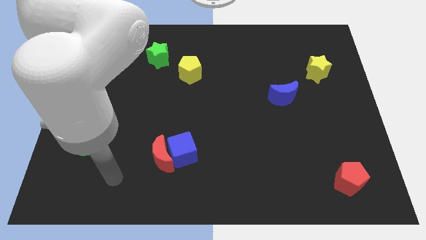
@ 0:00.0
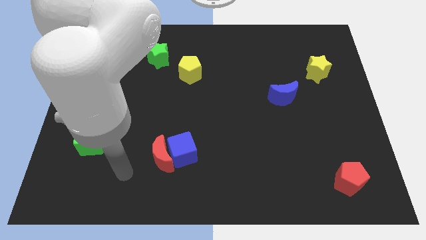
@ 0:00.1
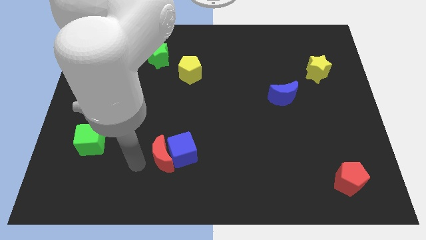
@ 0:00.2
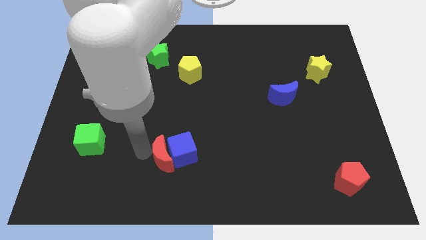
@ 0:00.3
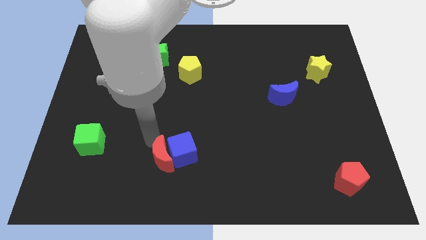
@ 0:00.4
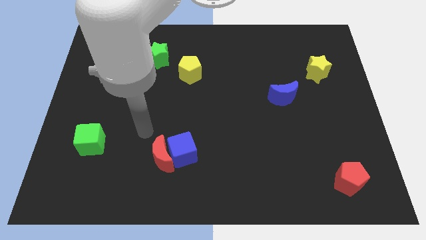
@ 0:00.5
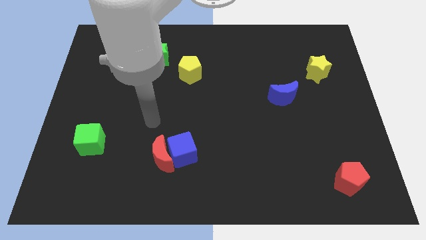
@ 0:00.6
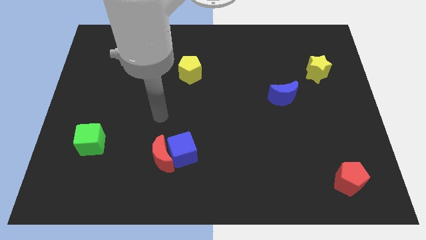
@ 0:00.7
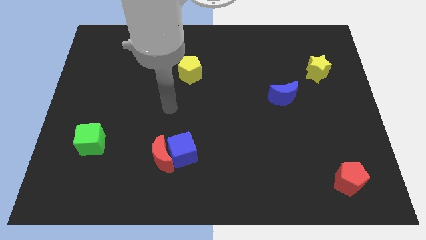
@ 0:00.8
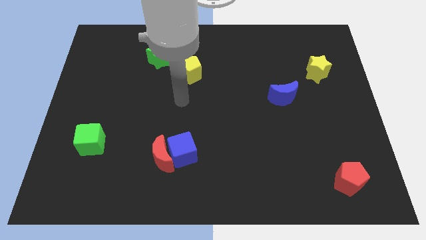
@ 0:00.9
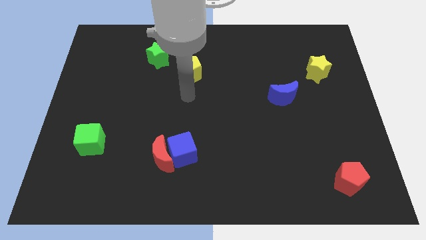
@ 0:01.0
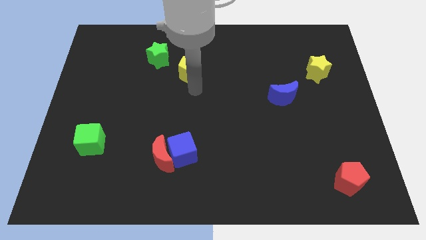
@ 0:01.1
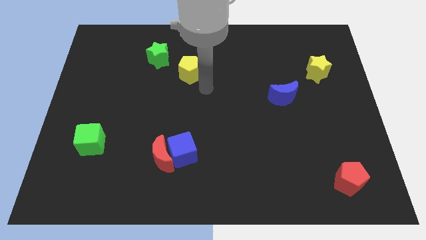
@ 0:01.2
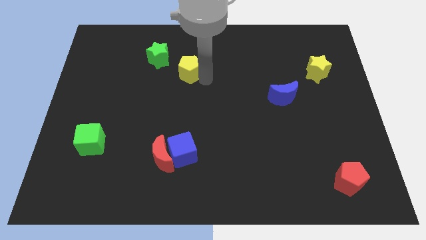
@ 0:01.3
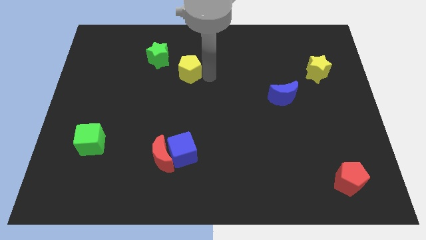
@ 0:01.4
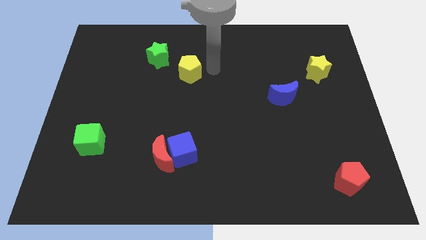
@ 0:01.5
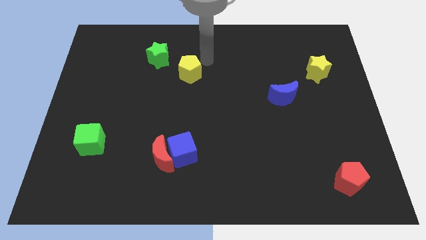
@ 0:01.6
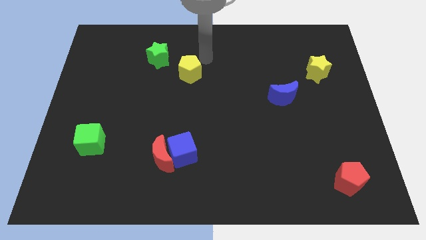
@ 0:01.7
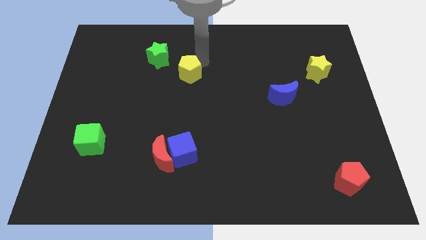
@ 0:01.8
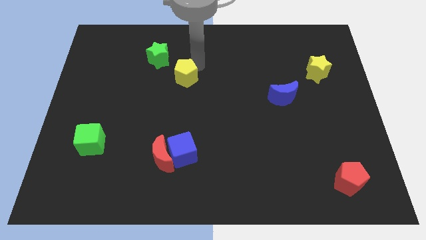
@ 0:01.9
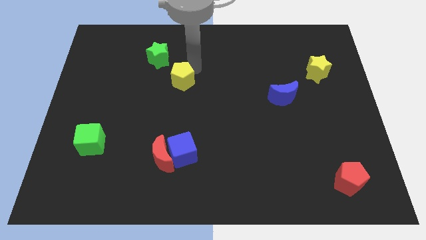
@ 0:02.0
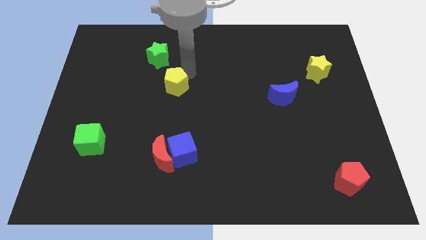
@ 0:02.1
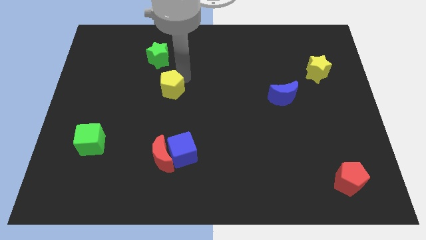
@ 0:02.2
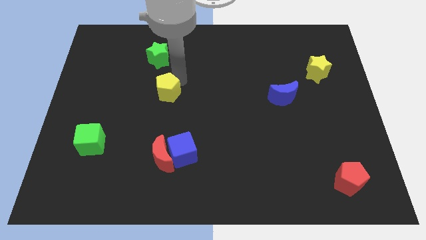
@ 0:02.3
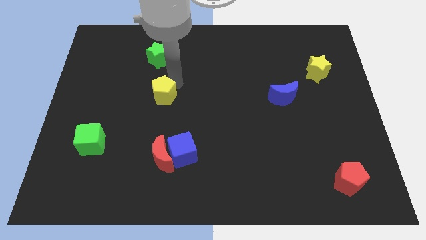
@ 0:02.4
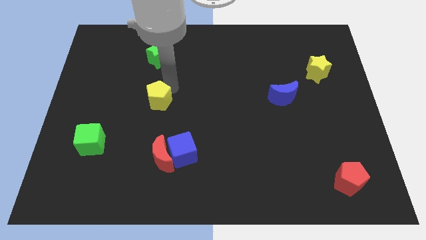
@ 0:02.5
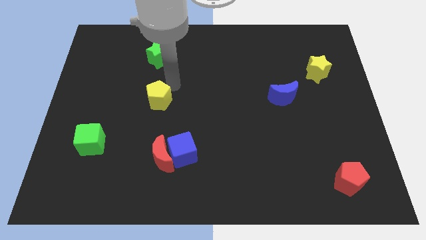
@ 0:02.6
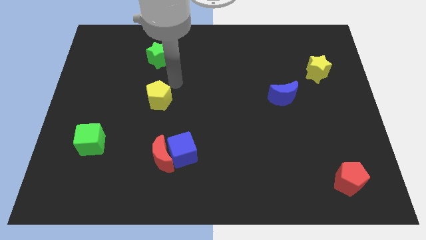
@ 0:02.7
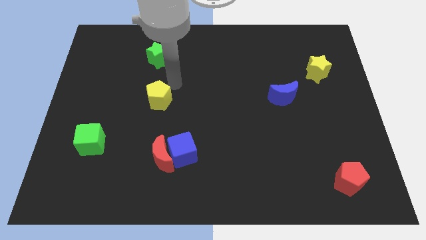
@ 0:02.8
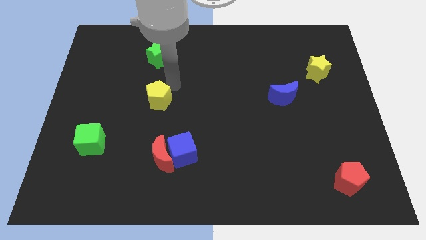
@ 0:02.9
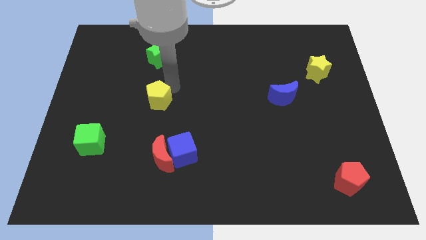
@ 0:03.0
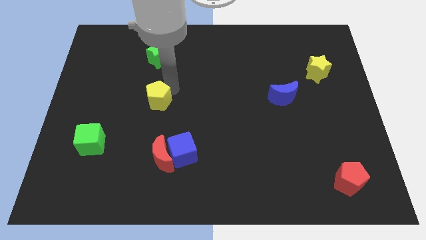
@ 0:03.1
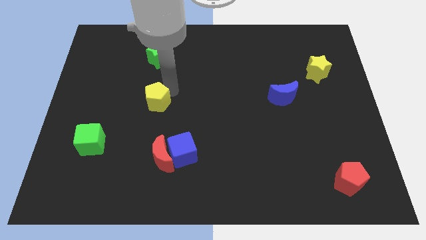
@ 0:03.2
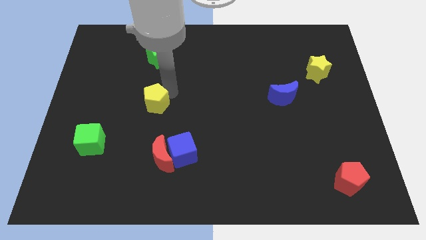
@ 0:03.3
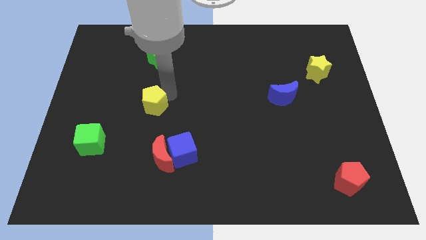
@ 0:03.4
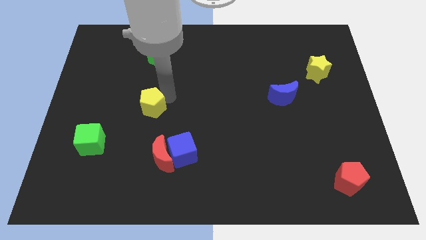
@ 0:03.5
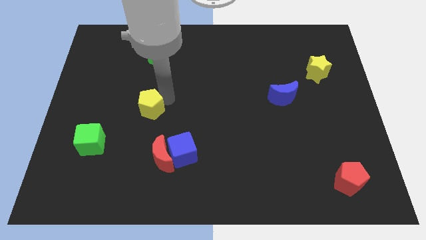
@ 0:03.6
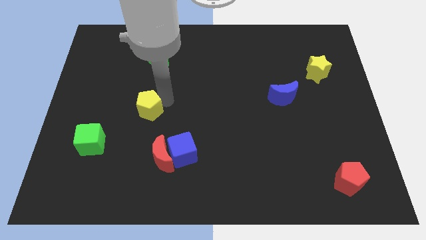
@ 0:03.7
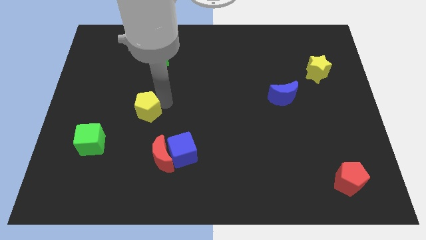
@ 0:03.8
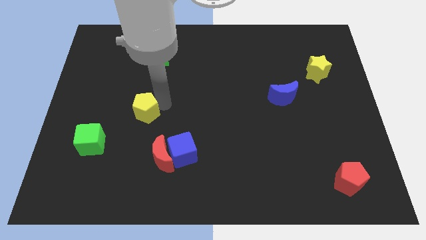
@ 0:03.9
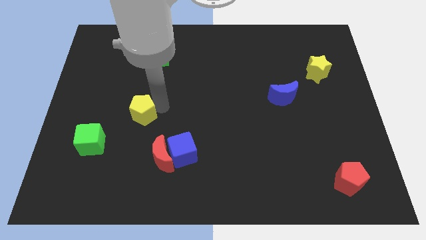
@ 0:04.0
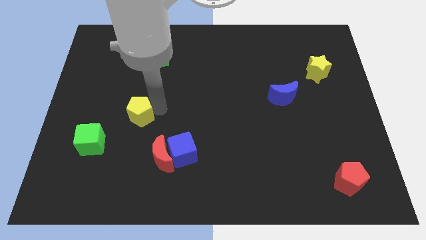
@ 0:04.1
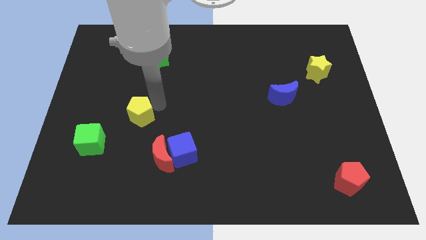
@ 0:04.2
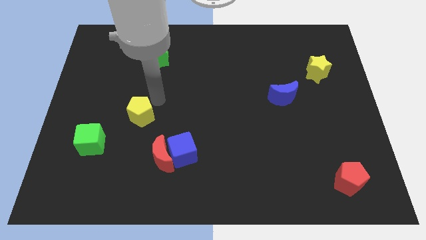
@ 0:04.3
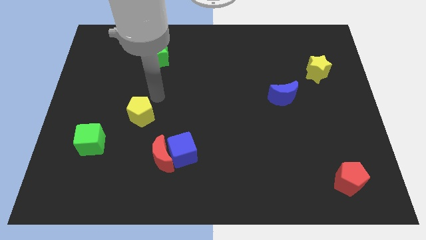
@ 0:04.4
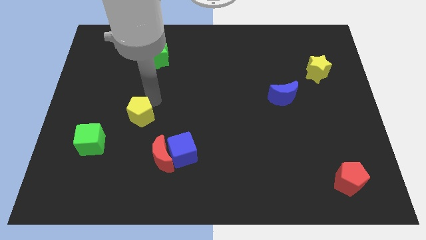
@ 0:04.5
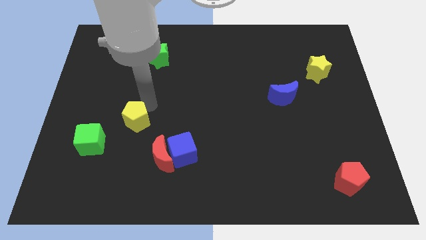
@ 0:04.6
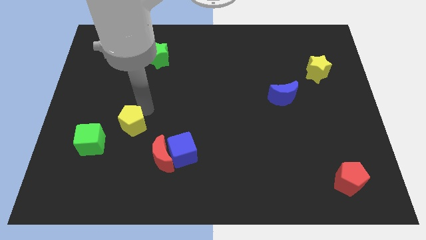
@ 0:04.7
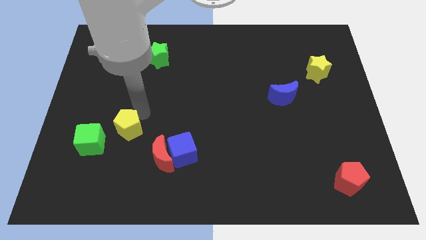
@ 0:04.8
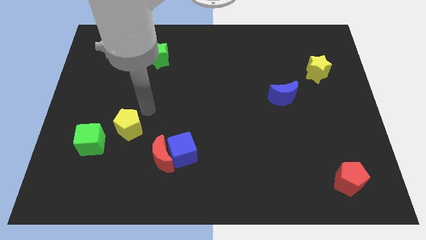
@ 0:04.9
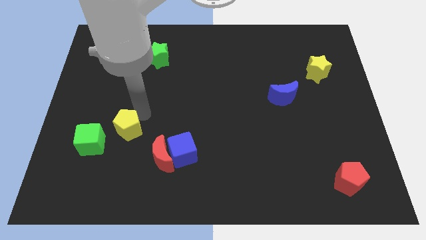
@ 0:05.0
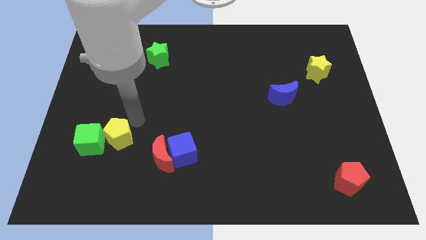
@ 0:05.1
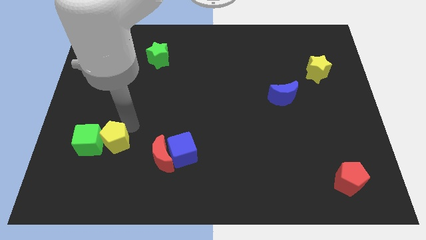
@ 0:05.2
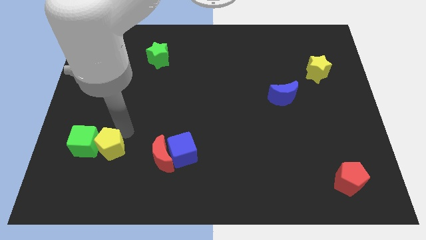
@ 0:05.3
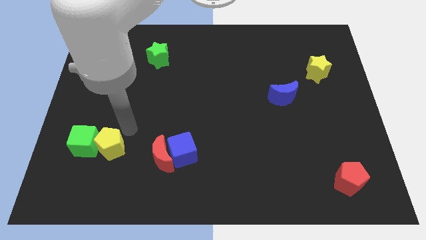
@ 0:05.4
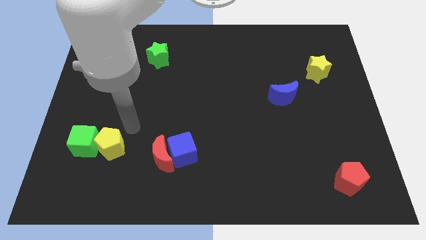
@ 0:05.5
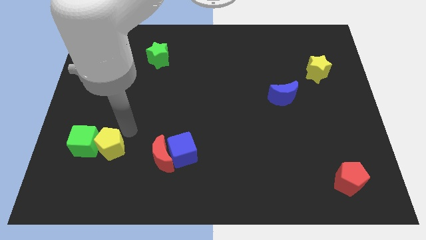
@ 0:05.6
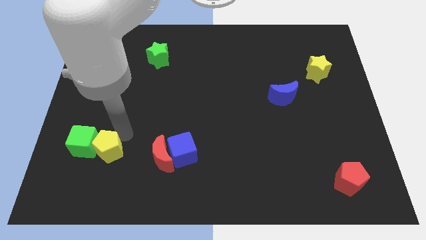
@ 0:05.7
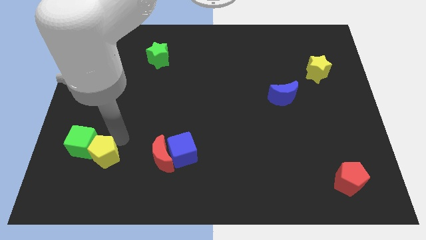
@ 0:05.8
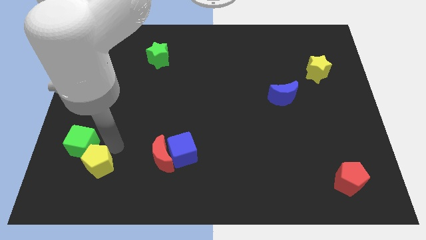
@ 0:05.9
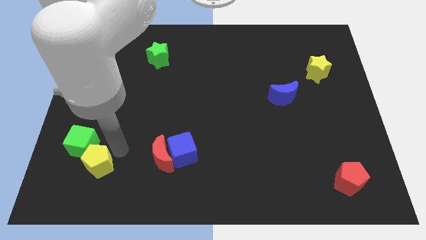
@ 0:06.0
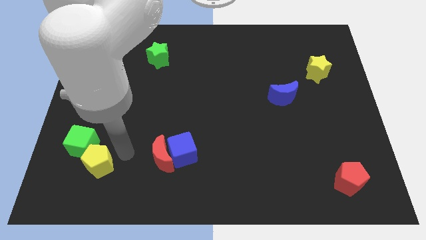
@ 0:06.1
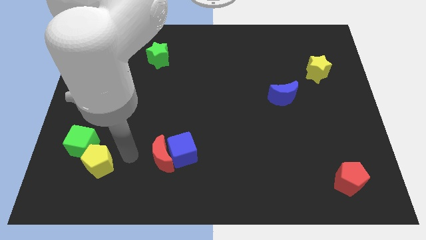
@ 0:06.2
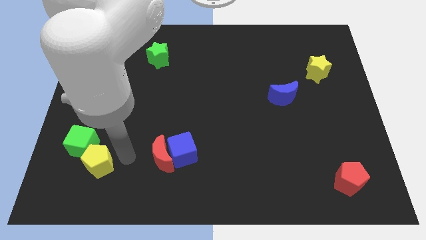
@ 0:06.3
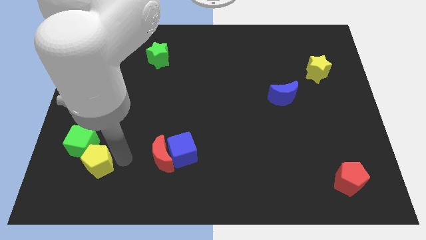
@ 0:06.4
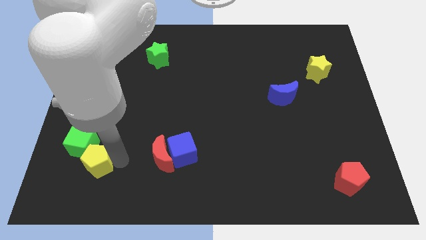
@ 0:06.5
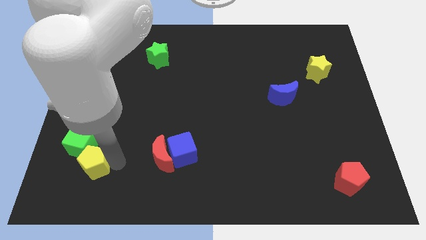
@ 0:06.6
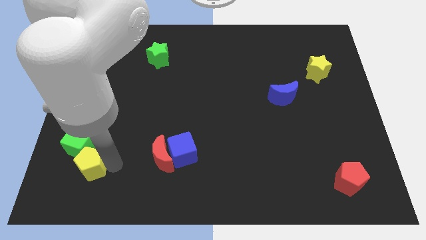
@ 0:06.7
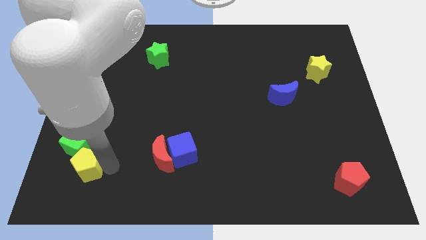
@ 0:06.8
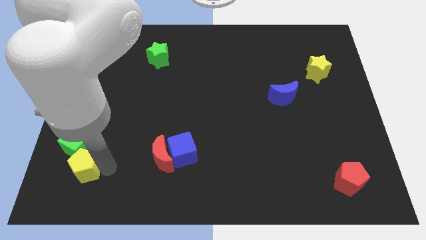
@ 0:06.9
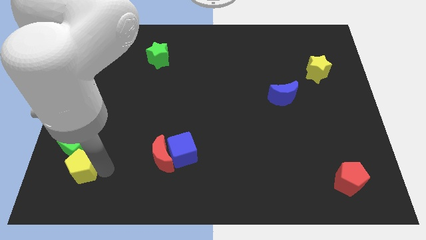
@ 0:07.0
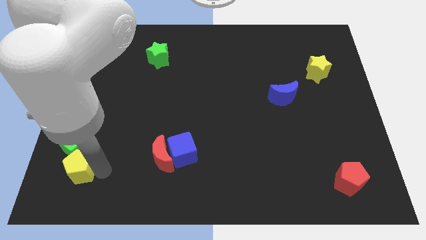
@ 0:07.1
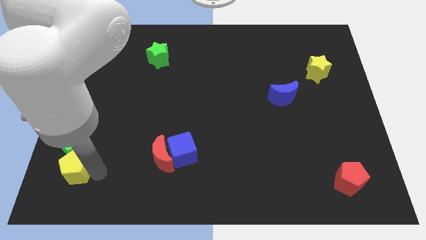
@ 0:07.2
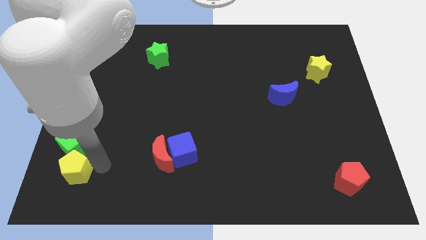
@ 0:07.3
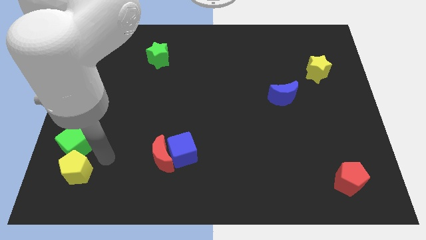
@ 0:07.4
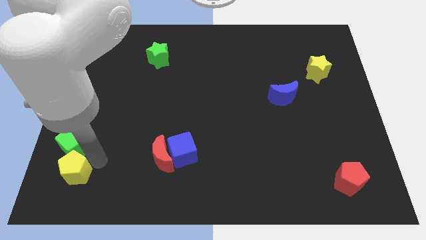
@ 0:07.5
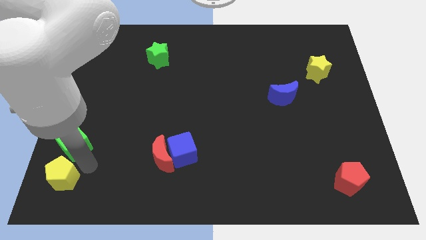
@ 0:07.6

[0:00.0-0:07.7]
put the yellow pentagon to the bottom left of the board
